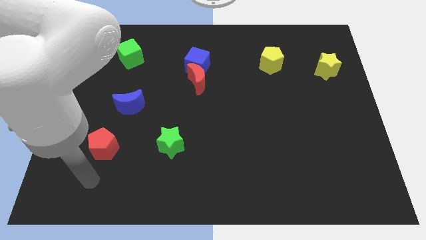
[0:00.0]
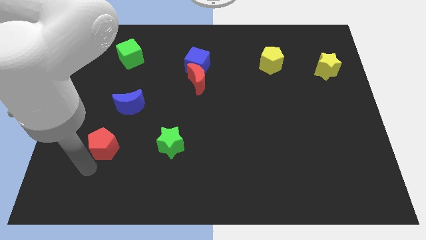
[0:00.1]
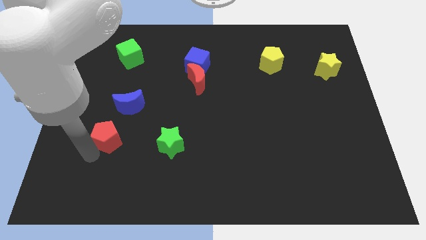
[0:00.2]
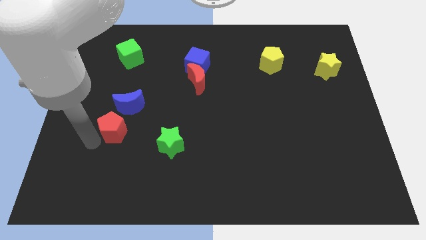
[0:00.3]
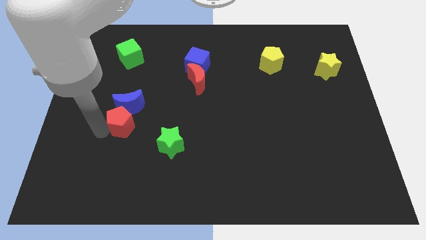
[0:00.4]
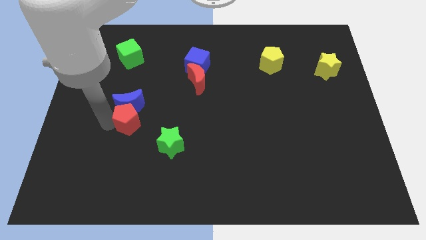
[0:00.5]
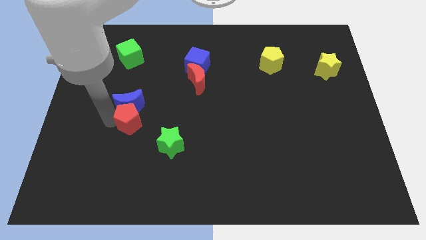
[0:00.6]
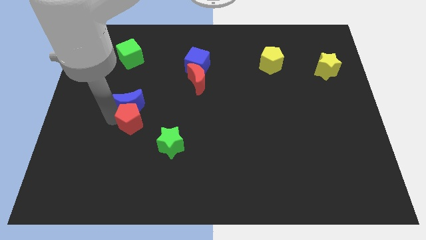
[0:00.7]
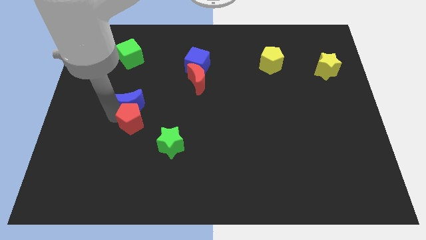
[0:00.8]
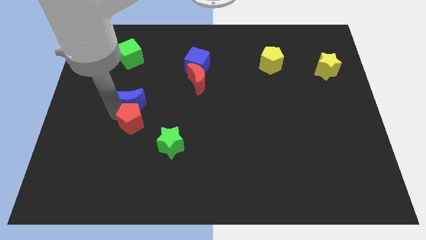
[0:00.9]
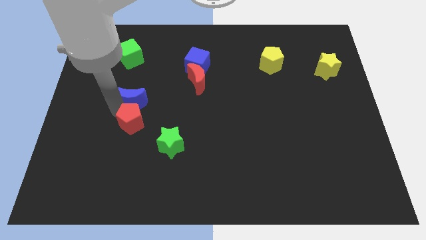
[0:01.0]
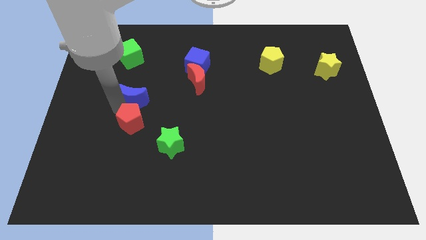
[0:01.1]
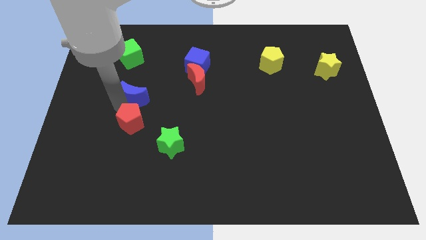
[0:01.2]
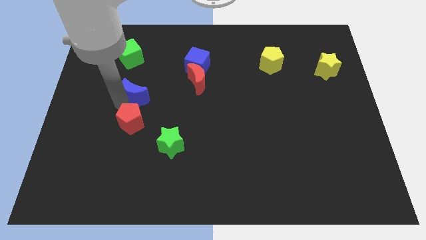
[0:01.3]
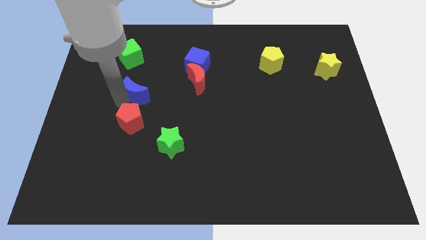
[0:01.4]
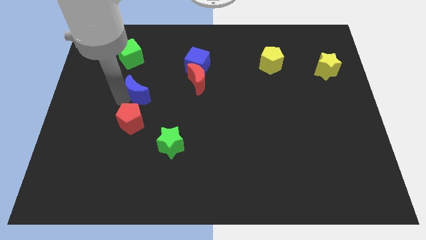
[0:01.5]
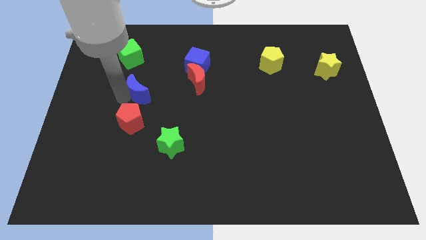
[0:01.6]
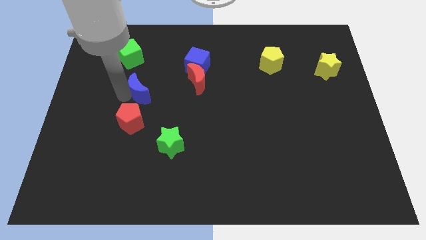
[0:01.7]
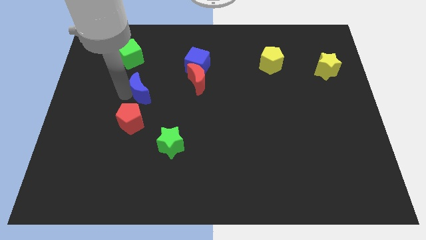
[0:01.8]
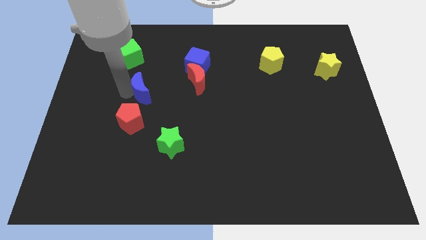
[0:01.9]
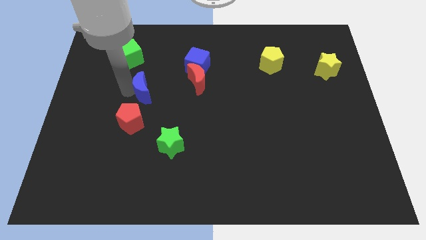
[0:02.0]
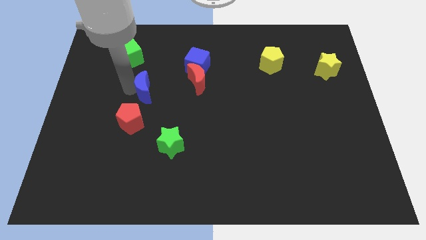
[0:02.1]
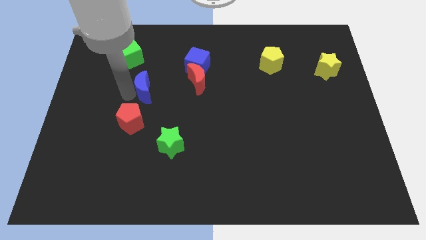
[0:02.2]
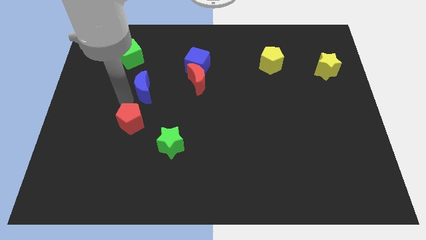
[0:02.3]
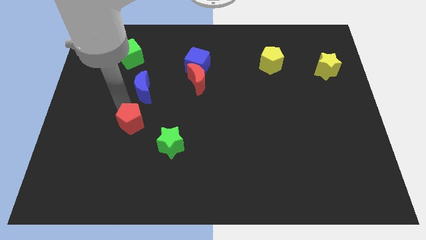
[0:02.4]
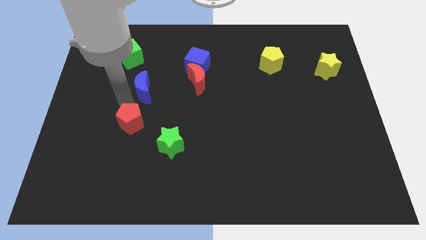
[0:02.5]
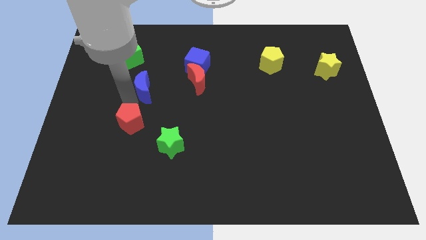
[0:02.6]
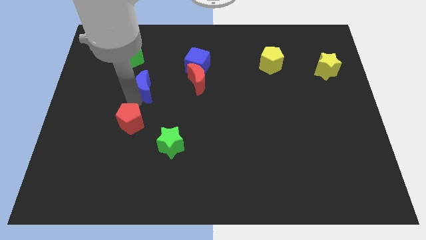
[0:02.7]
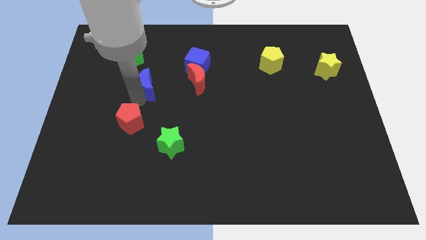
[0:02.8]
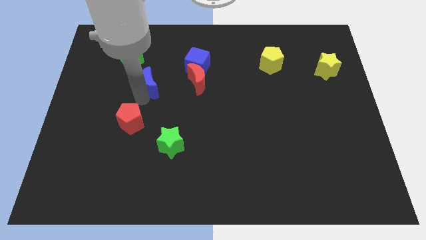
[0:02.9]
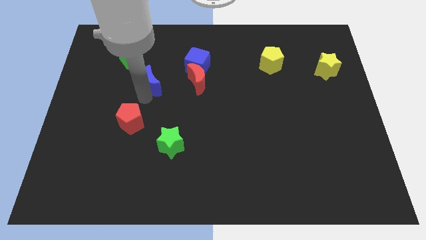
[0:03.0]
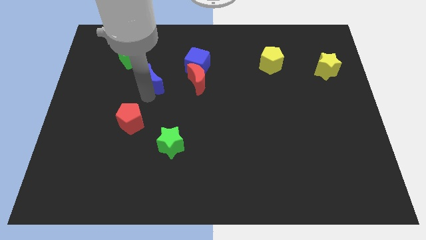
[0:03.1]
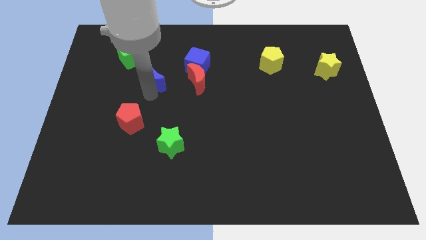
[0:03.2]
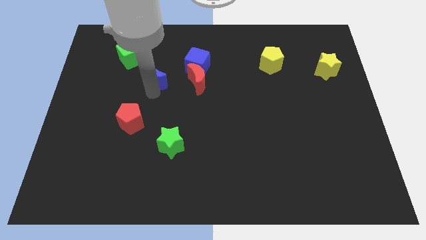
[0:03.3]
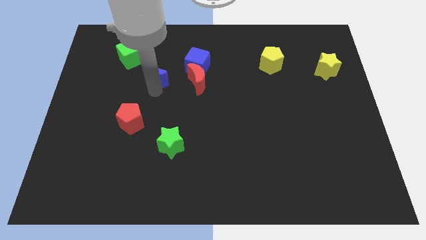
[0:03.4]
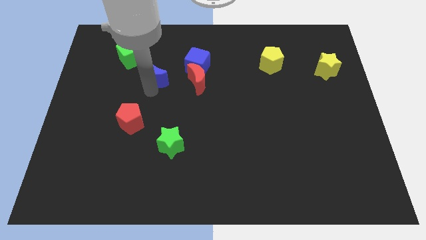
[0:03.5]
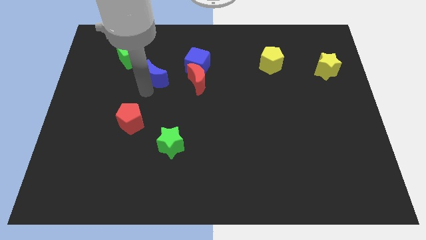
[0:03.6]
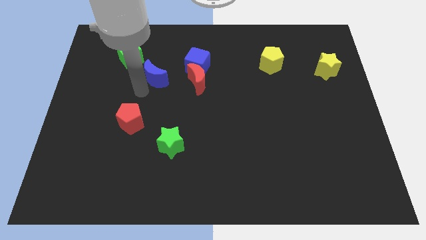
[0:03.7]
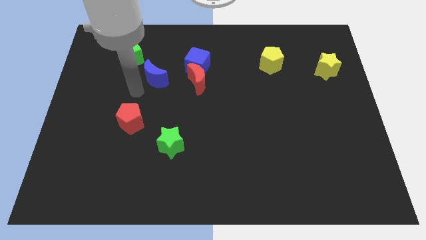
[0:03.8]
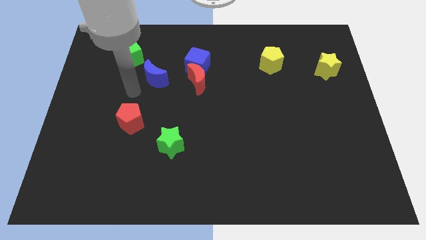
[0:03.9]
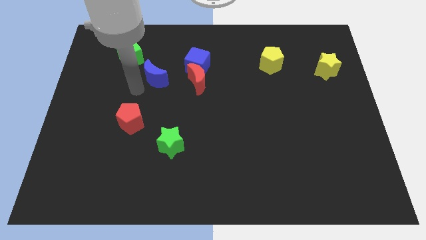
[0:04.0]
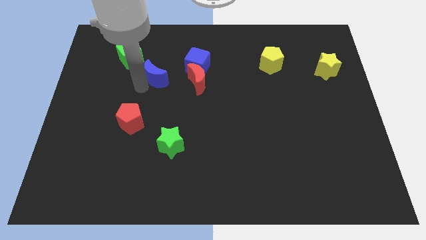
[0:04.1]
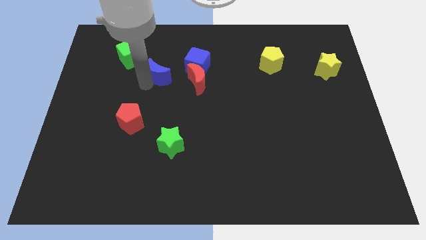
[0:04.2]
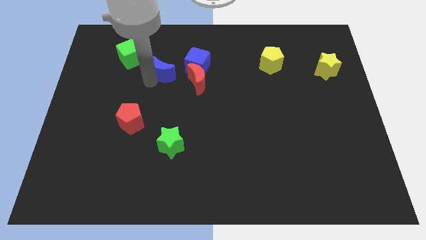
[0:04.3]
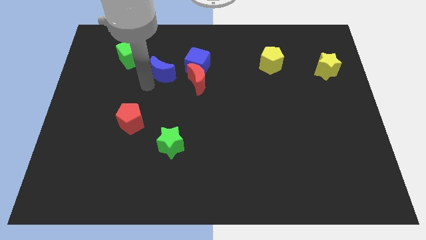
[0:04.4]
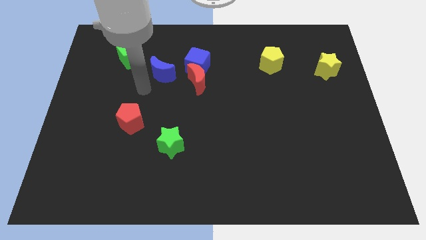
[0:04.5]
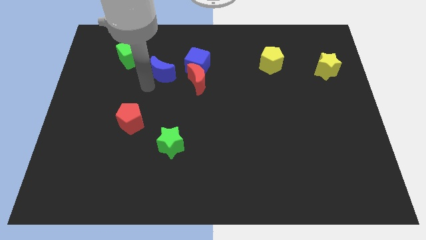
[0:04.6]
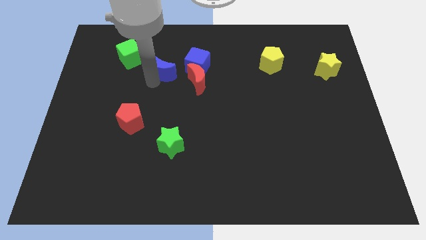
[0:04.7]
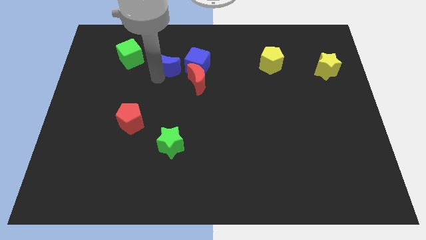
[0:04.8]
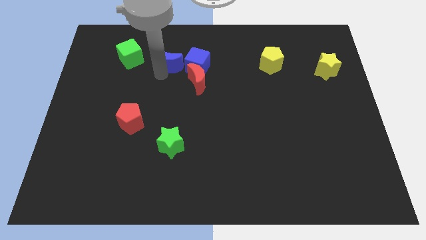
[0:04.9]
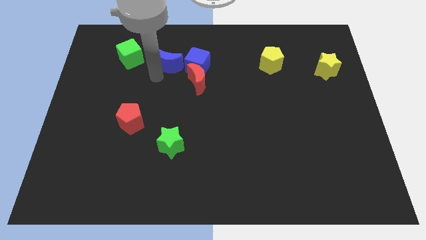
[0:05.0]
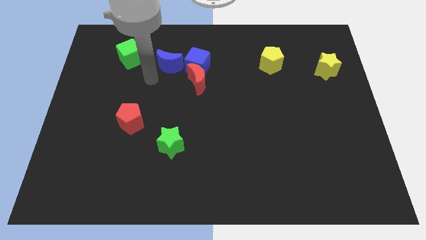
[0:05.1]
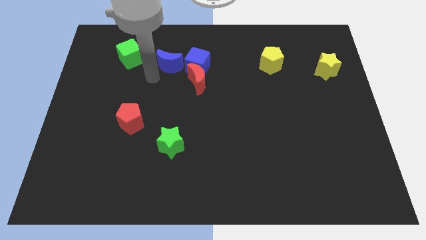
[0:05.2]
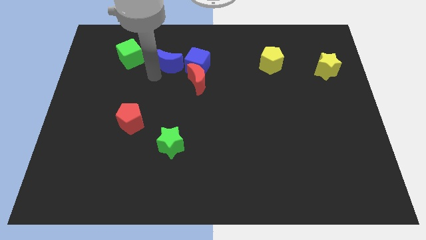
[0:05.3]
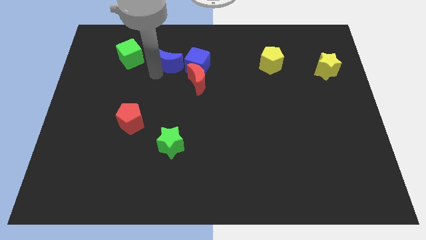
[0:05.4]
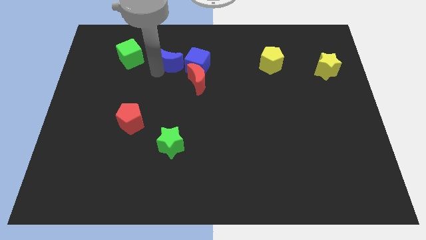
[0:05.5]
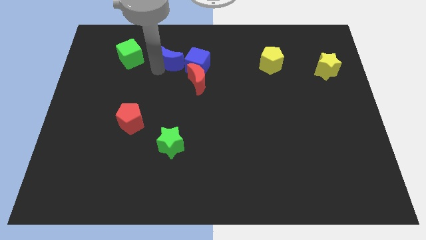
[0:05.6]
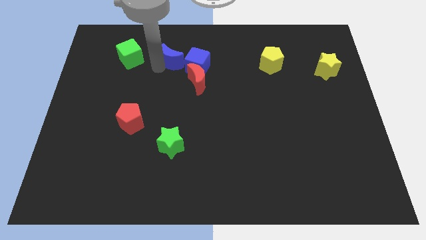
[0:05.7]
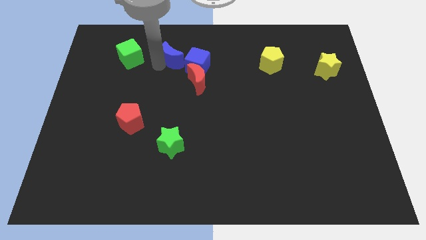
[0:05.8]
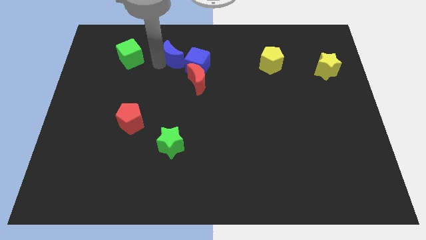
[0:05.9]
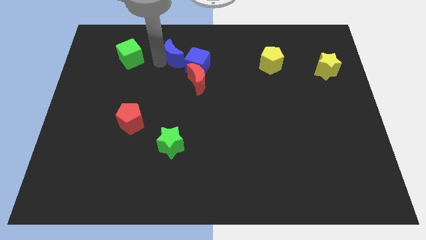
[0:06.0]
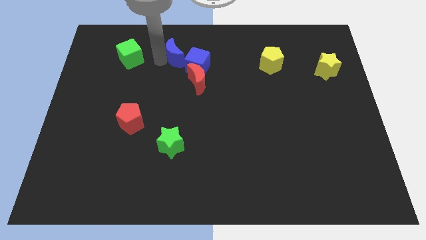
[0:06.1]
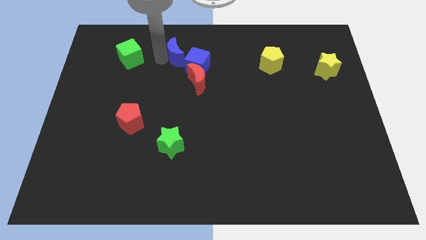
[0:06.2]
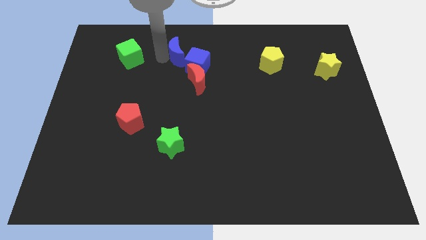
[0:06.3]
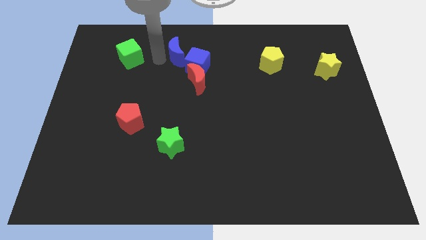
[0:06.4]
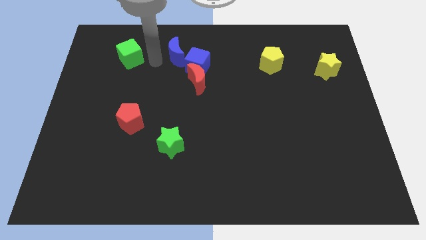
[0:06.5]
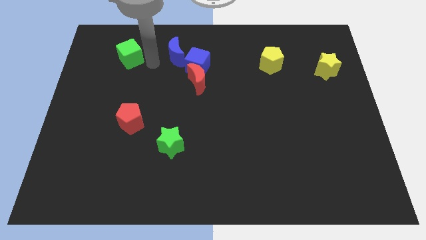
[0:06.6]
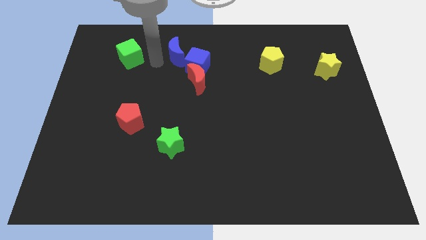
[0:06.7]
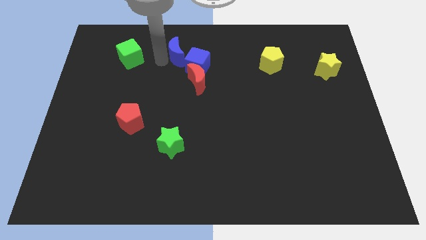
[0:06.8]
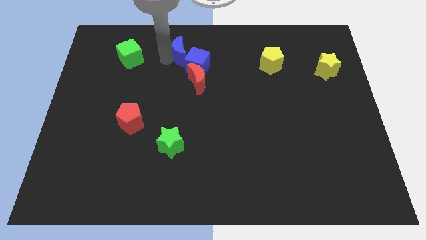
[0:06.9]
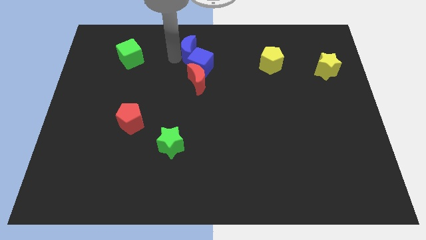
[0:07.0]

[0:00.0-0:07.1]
move the blue moon to the top side
